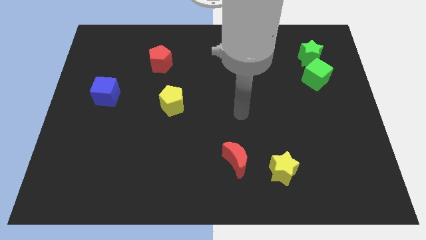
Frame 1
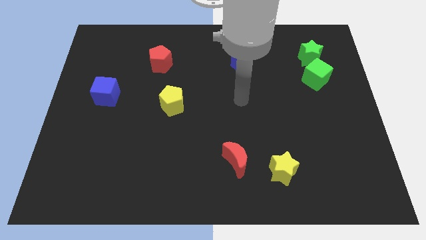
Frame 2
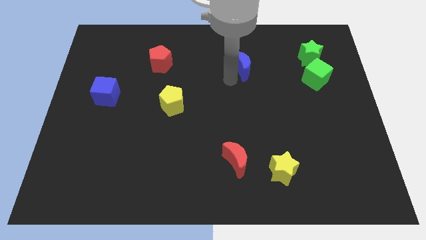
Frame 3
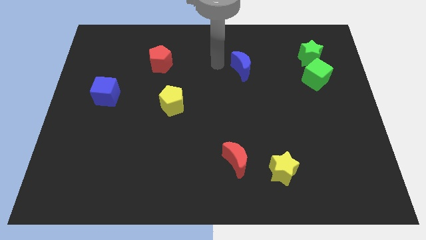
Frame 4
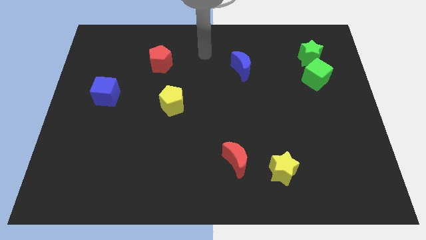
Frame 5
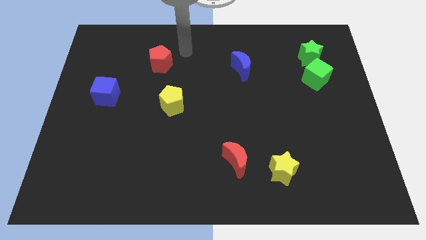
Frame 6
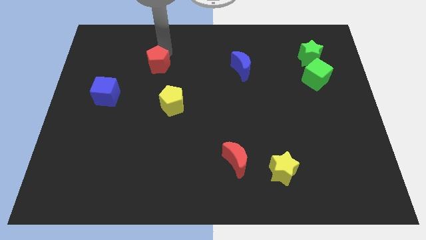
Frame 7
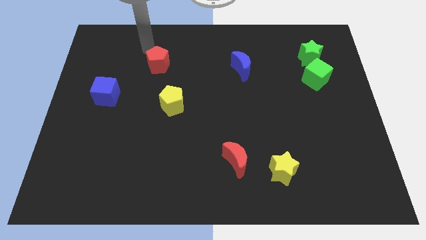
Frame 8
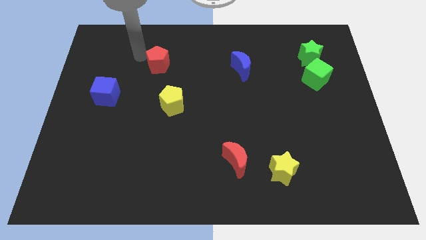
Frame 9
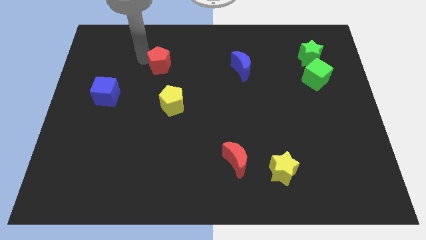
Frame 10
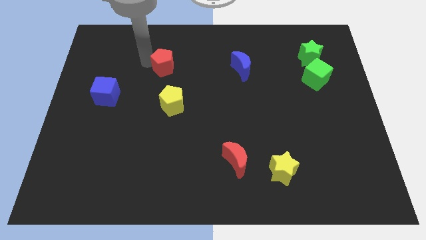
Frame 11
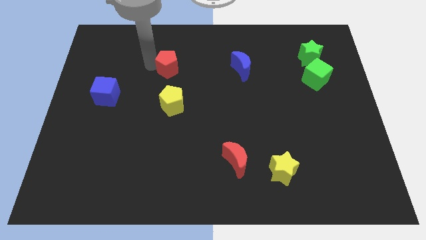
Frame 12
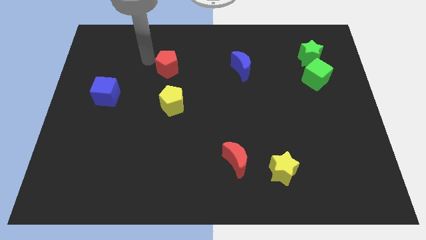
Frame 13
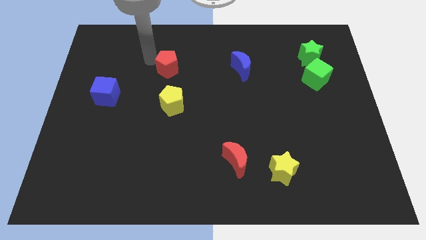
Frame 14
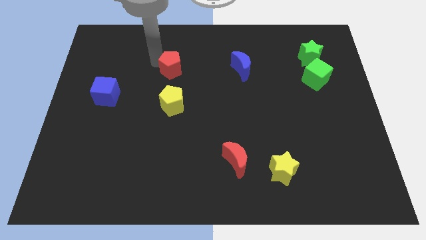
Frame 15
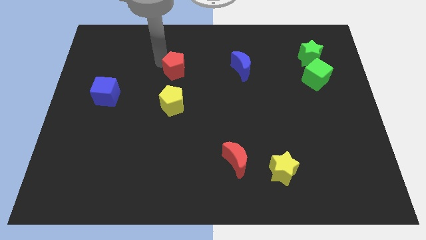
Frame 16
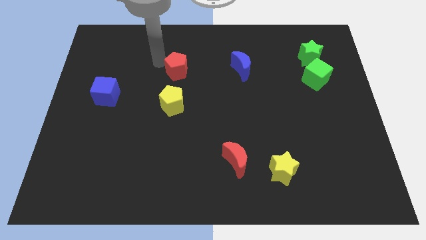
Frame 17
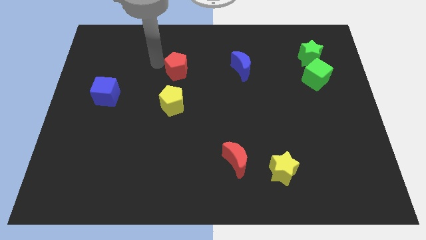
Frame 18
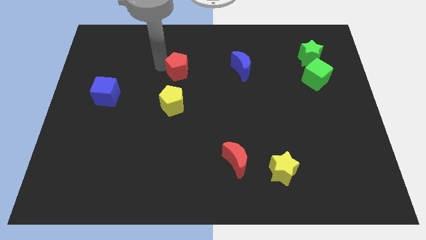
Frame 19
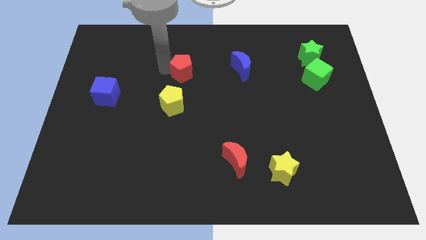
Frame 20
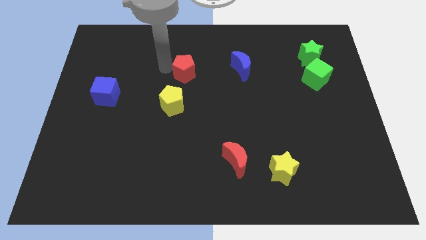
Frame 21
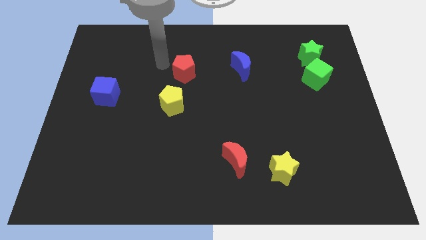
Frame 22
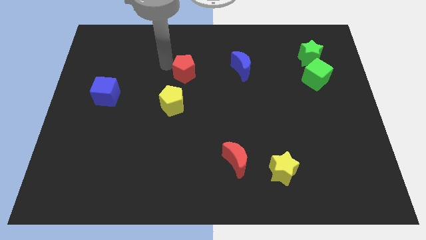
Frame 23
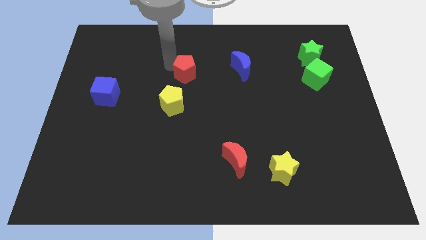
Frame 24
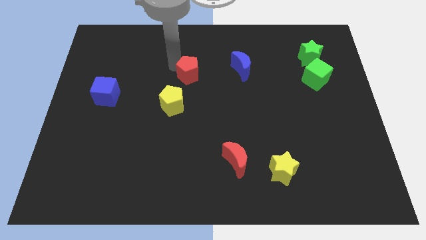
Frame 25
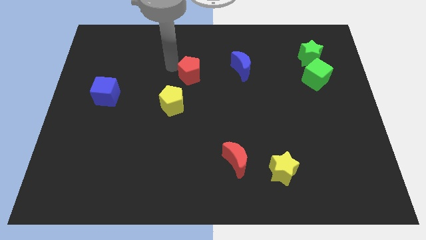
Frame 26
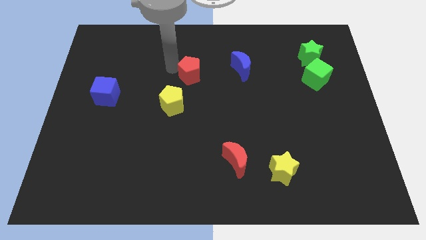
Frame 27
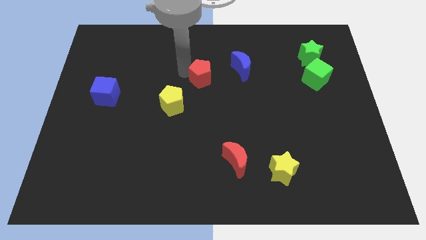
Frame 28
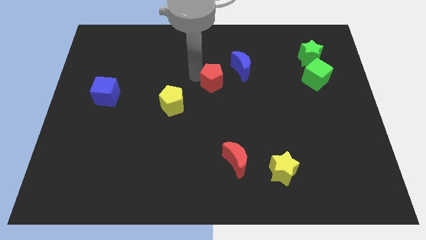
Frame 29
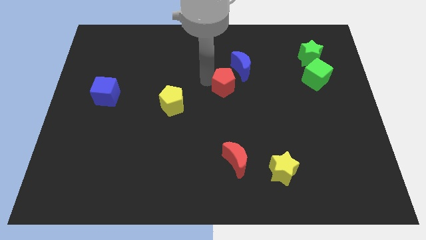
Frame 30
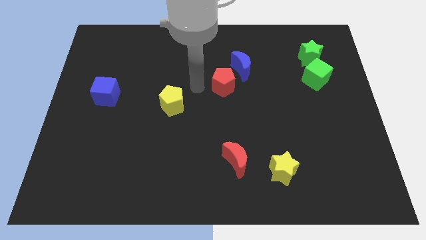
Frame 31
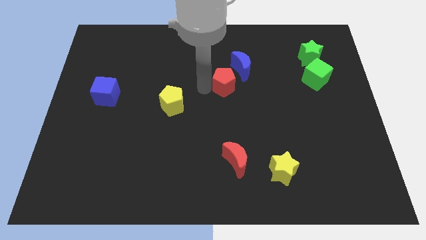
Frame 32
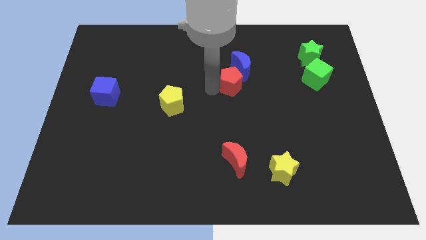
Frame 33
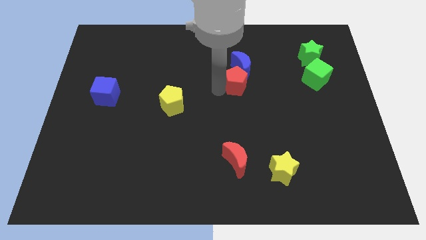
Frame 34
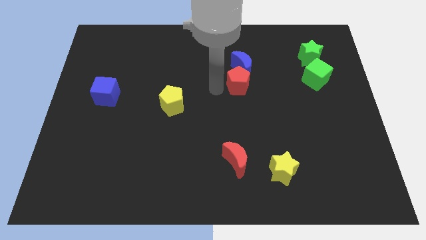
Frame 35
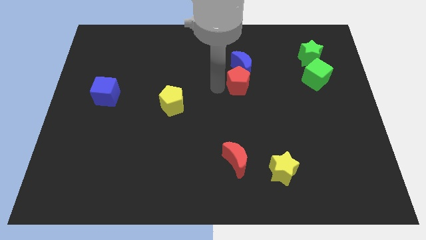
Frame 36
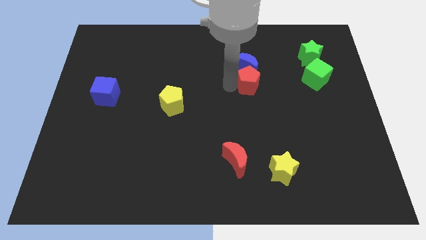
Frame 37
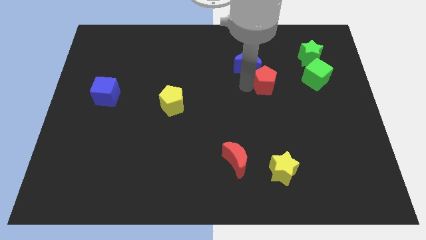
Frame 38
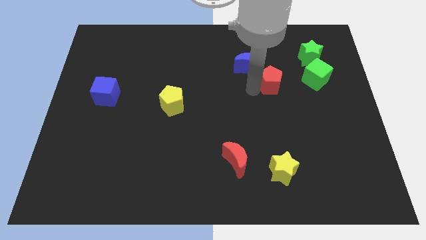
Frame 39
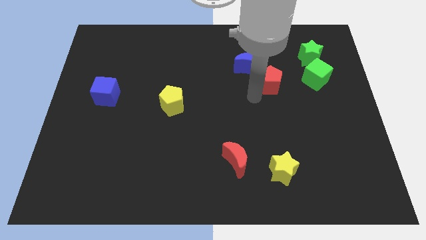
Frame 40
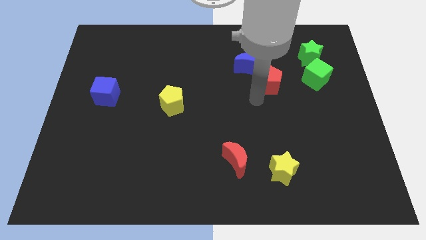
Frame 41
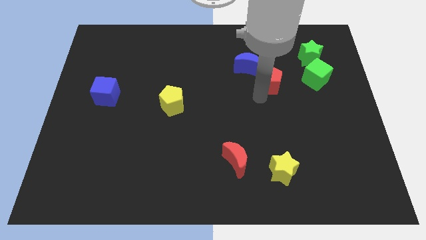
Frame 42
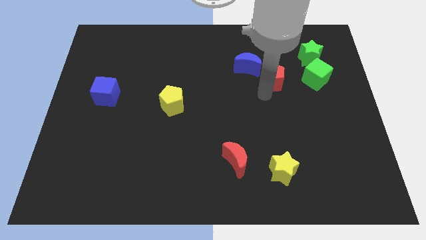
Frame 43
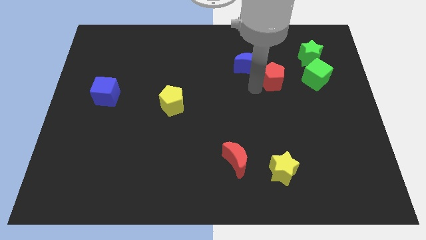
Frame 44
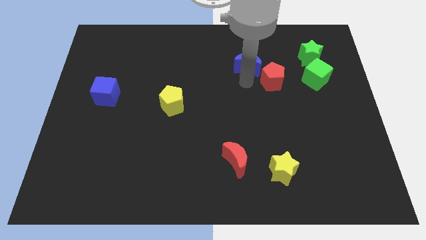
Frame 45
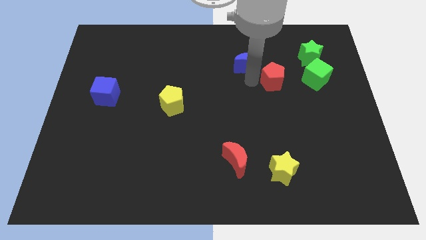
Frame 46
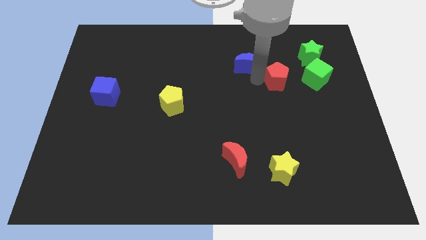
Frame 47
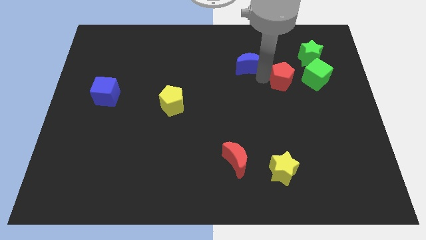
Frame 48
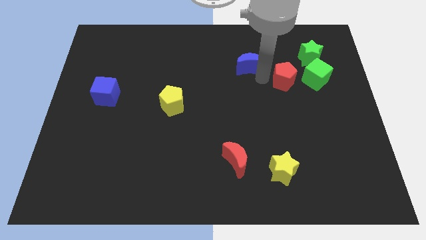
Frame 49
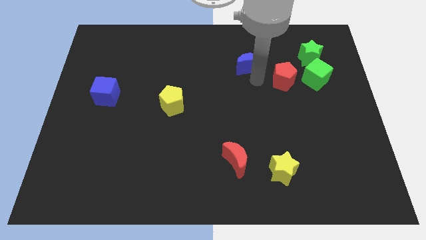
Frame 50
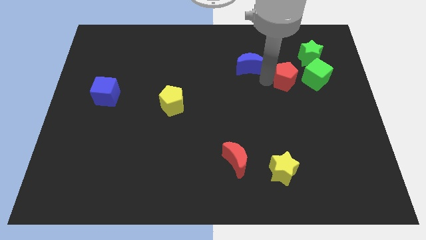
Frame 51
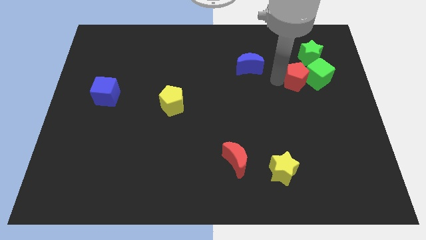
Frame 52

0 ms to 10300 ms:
put the red pentagon towards the green cube

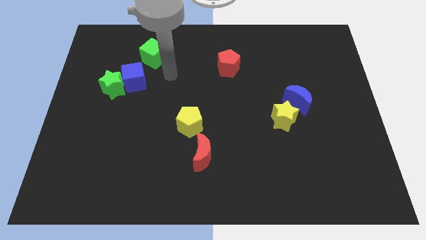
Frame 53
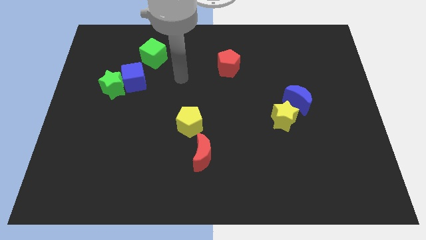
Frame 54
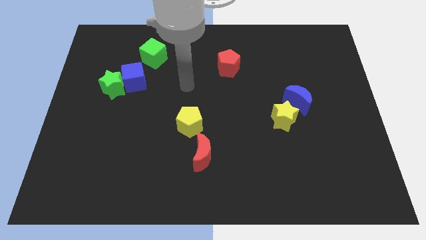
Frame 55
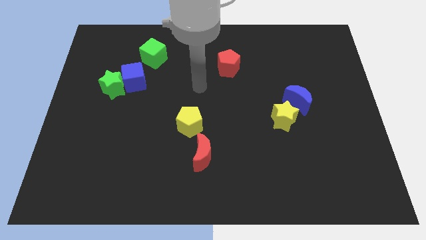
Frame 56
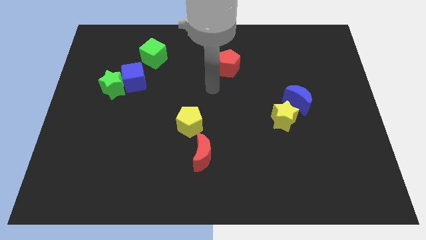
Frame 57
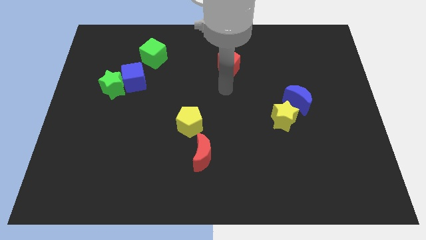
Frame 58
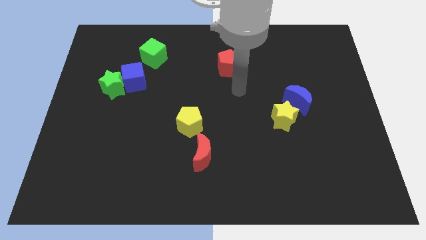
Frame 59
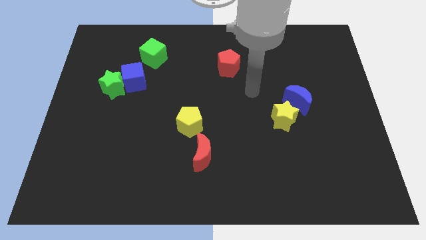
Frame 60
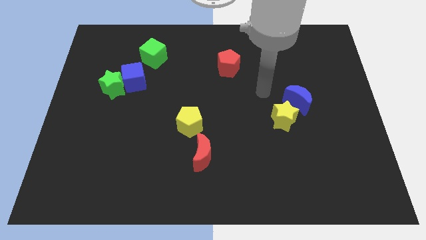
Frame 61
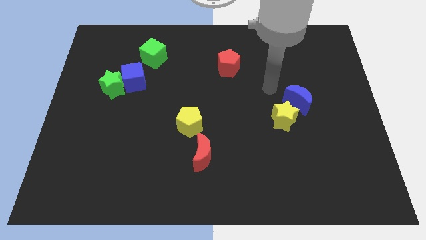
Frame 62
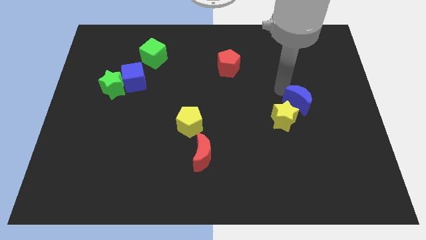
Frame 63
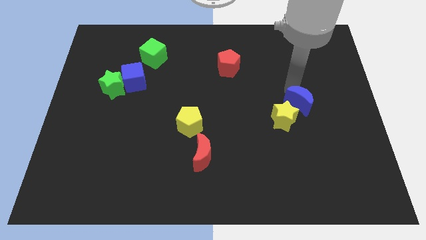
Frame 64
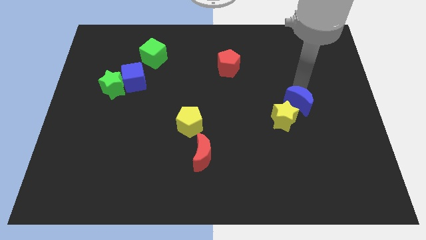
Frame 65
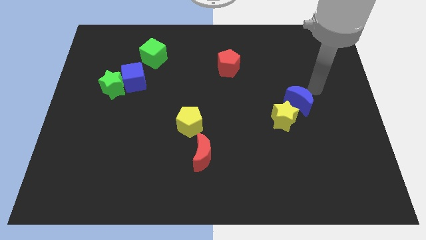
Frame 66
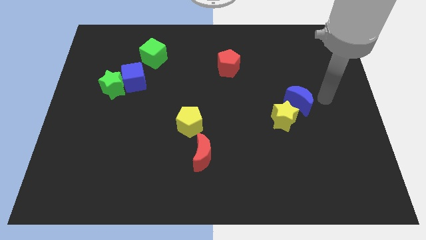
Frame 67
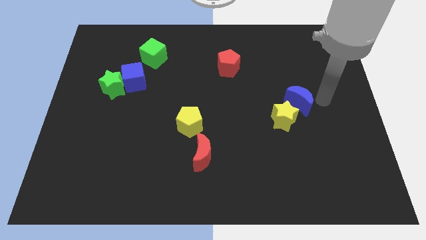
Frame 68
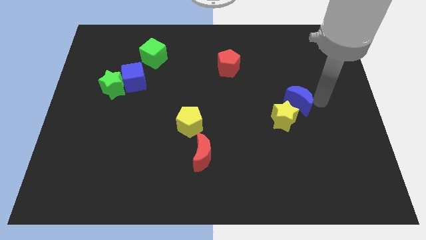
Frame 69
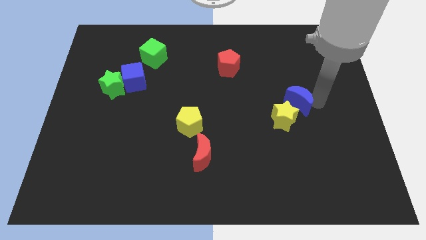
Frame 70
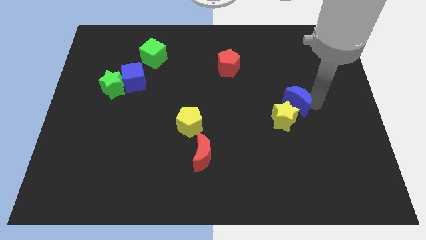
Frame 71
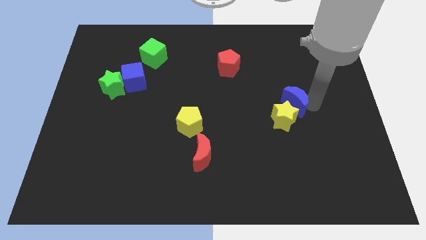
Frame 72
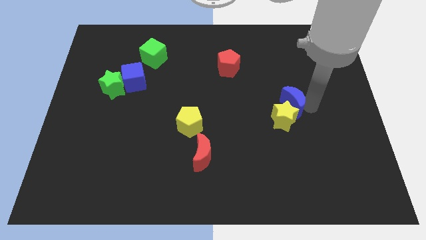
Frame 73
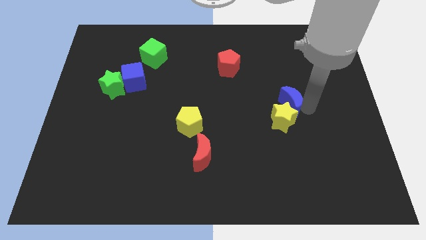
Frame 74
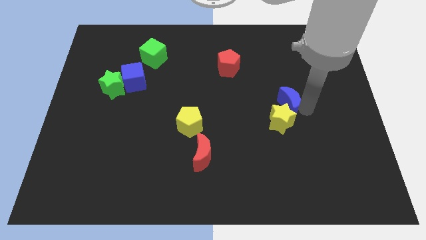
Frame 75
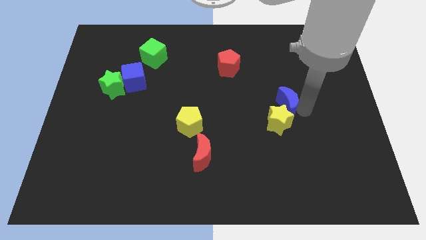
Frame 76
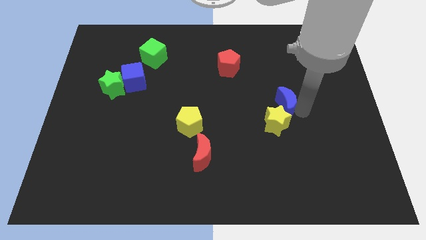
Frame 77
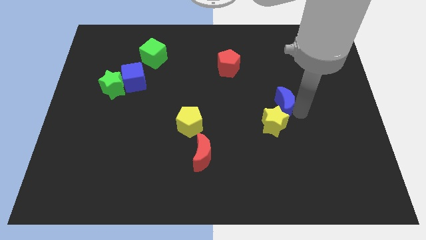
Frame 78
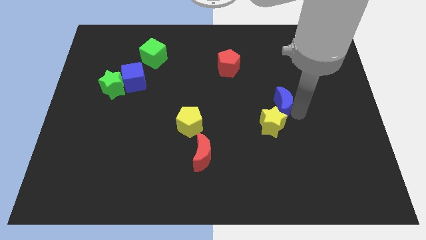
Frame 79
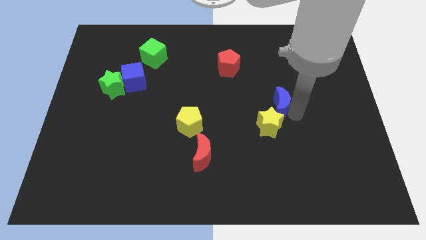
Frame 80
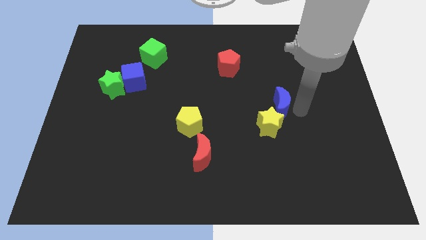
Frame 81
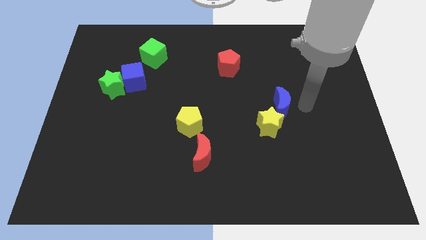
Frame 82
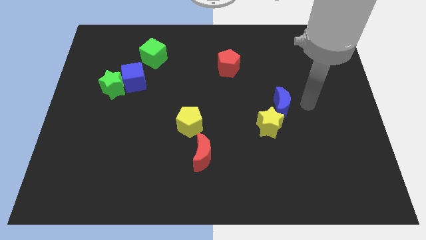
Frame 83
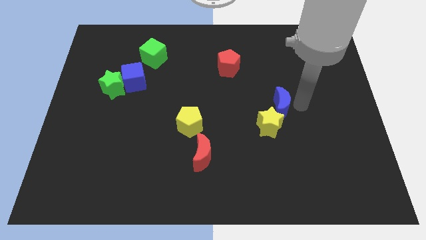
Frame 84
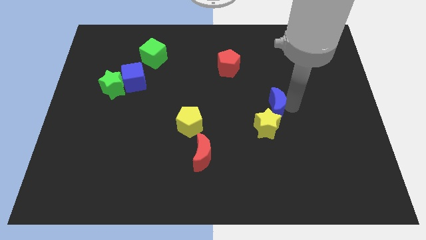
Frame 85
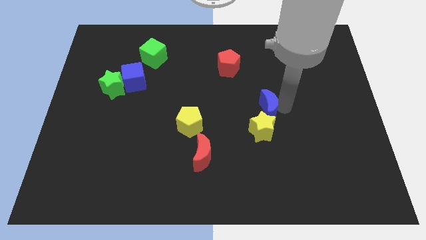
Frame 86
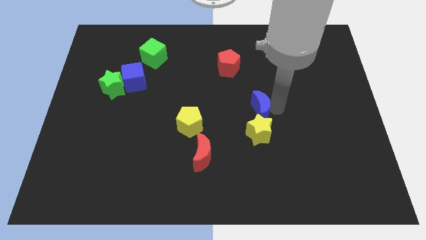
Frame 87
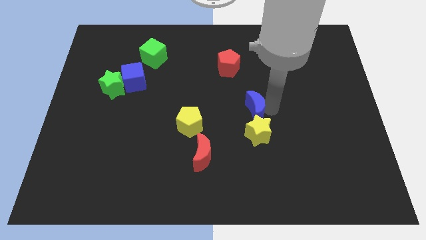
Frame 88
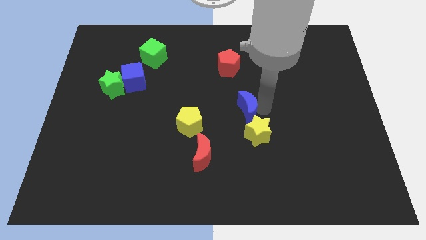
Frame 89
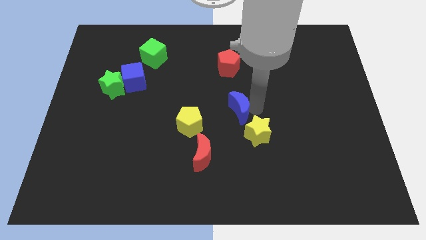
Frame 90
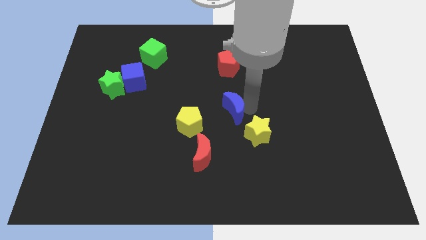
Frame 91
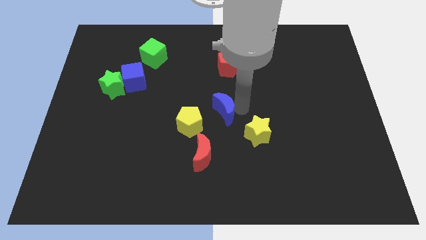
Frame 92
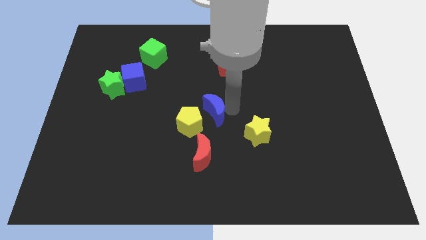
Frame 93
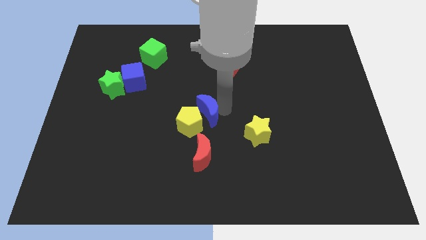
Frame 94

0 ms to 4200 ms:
slide the blue moon towards the yellow pentagon
